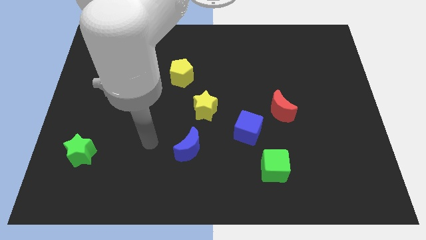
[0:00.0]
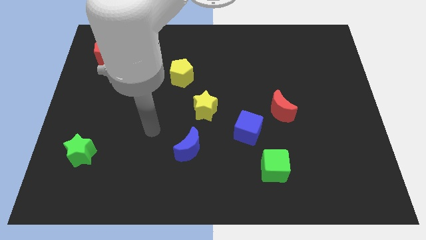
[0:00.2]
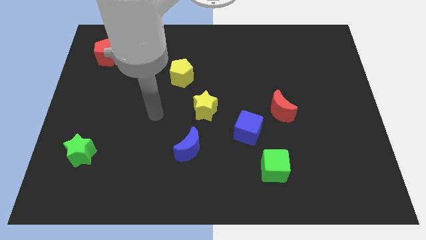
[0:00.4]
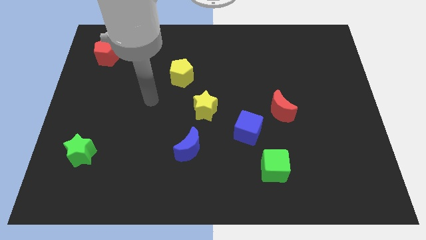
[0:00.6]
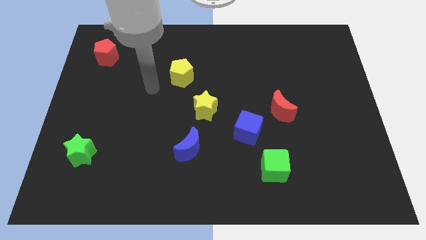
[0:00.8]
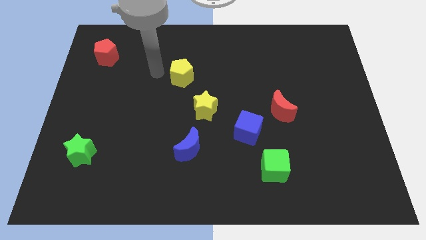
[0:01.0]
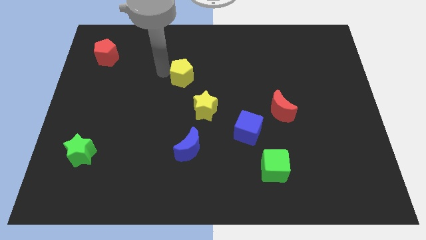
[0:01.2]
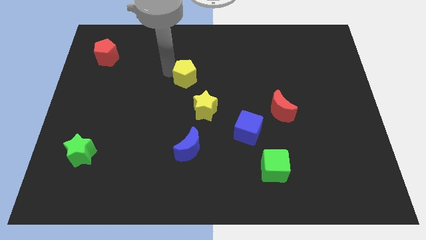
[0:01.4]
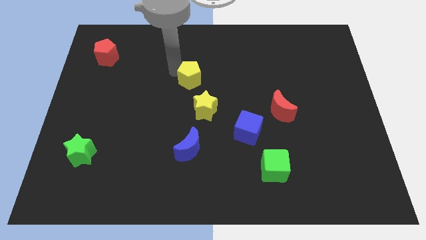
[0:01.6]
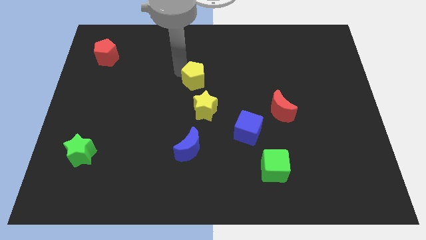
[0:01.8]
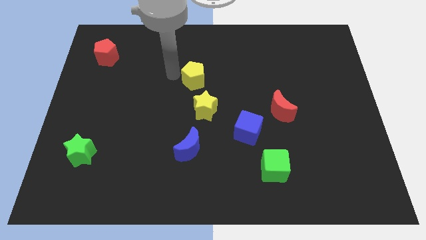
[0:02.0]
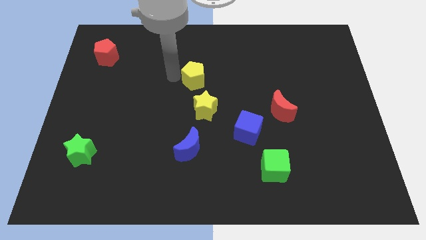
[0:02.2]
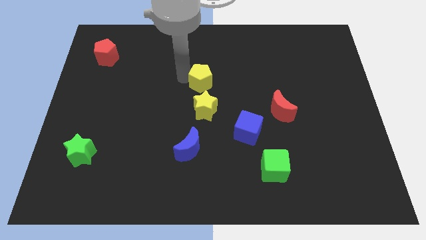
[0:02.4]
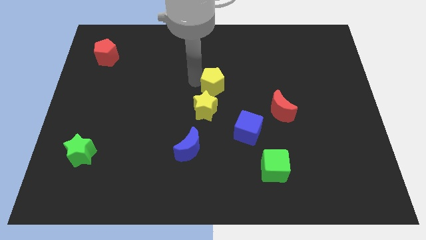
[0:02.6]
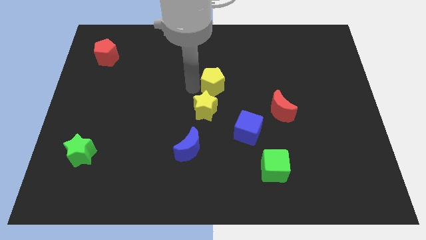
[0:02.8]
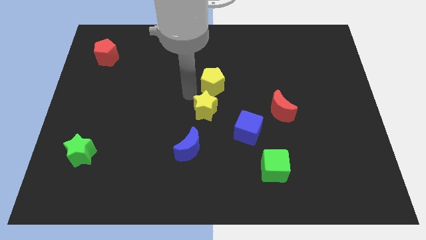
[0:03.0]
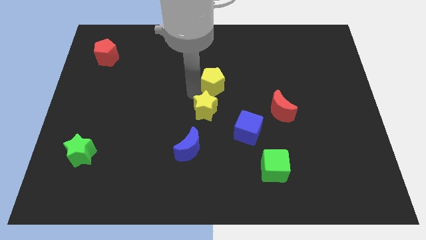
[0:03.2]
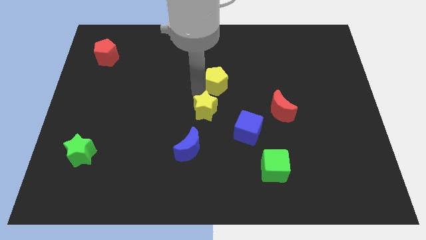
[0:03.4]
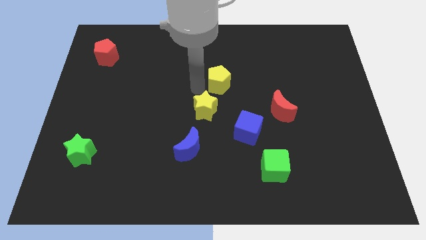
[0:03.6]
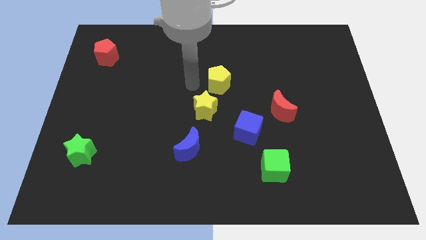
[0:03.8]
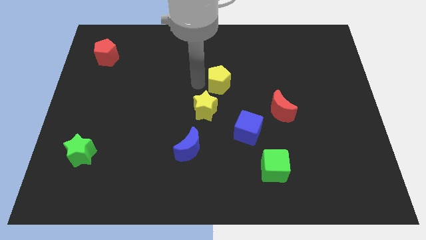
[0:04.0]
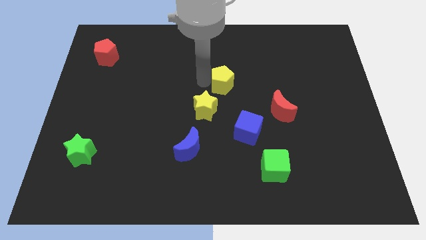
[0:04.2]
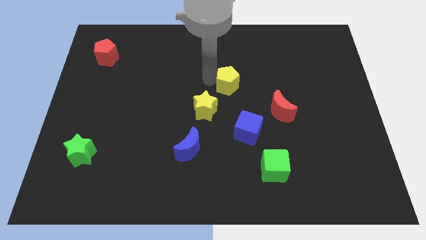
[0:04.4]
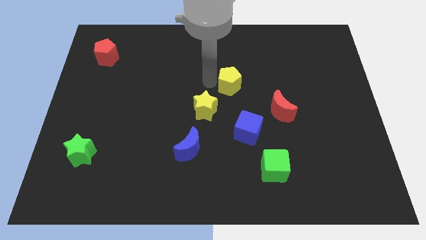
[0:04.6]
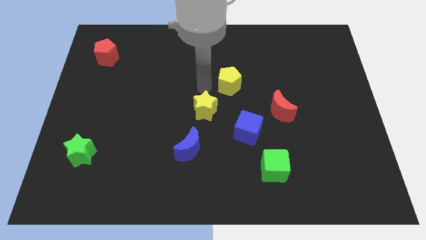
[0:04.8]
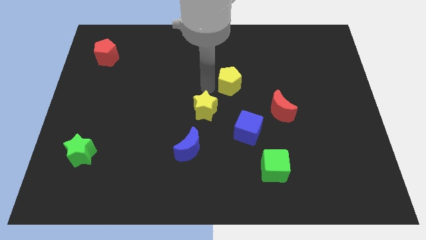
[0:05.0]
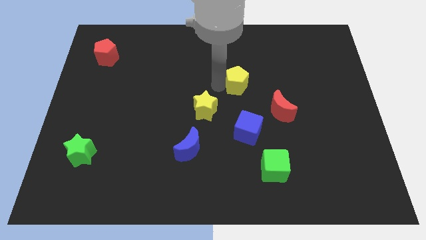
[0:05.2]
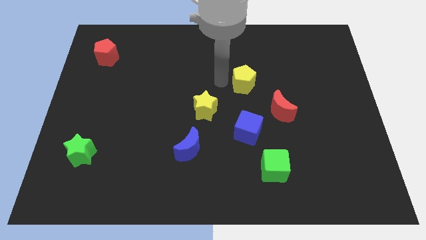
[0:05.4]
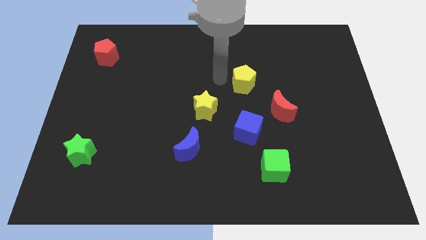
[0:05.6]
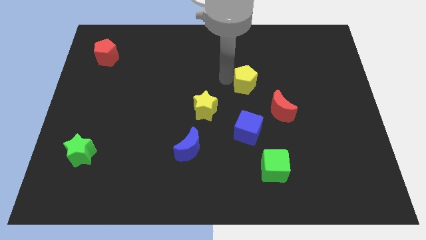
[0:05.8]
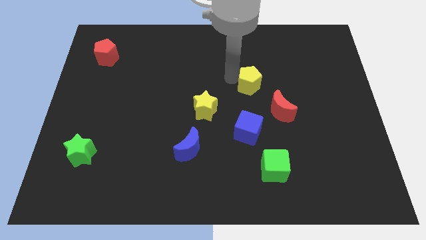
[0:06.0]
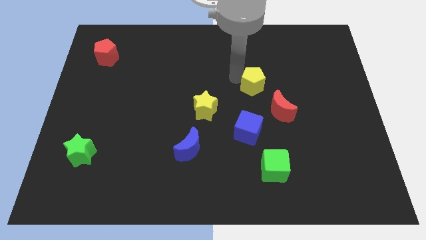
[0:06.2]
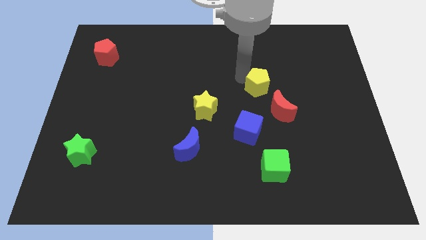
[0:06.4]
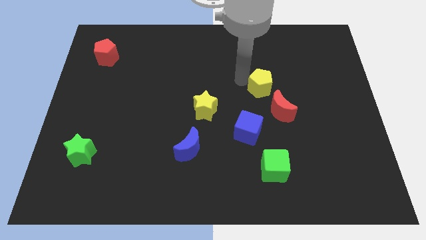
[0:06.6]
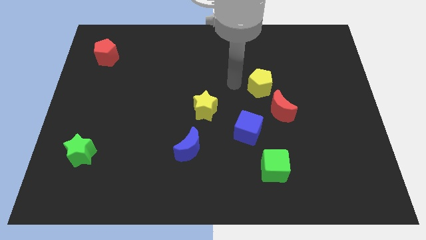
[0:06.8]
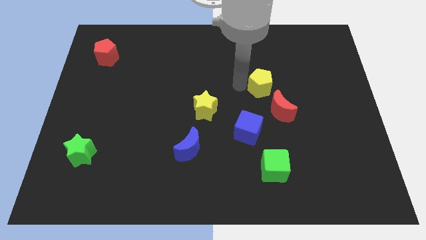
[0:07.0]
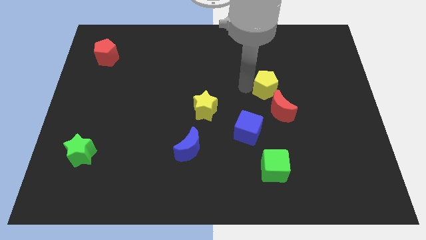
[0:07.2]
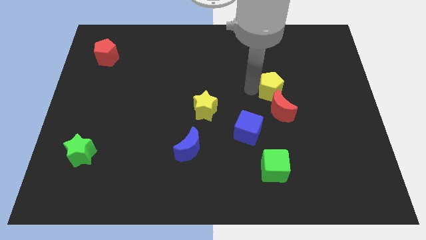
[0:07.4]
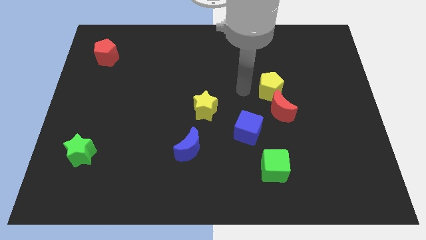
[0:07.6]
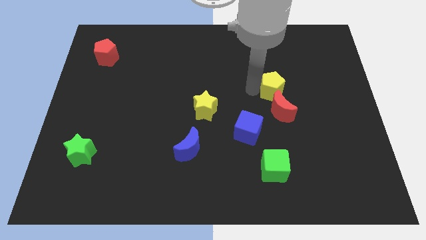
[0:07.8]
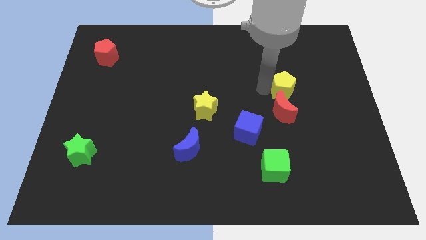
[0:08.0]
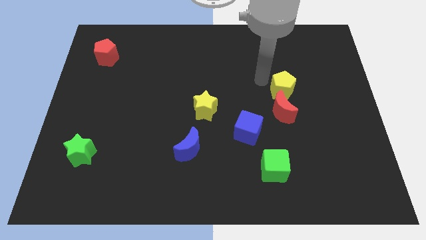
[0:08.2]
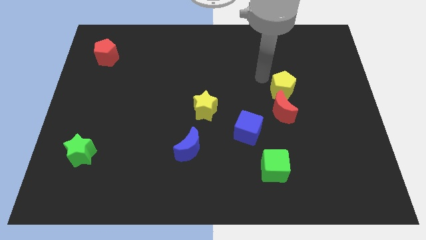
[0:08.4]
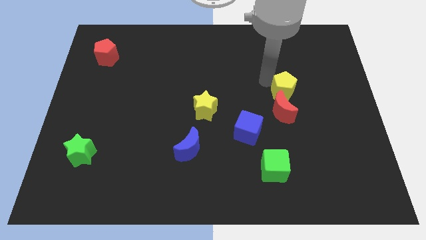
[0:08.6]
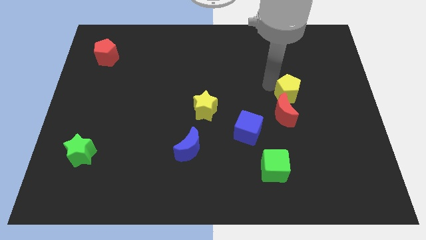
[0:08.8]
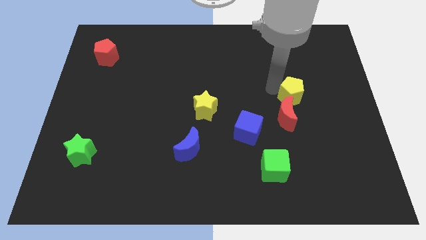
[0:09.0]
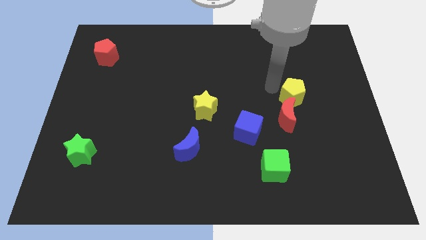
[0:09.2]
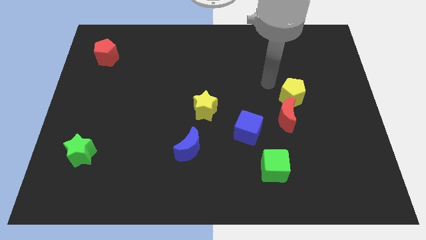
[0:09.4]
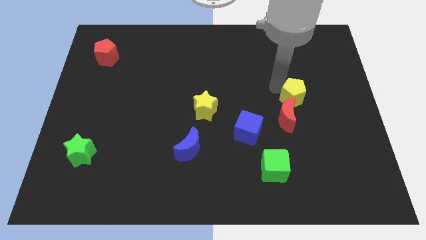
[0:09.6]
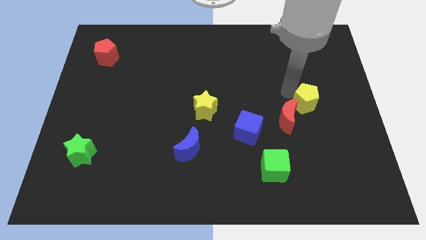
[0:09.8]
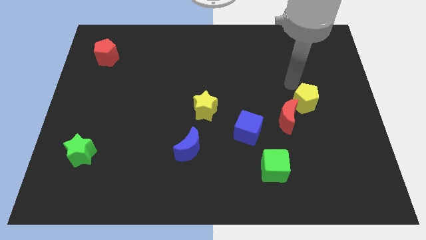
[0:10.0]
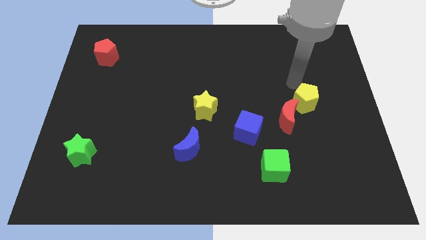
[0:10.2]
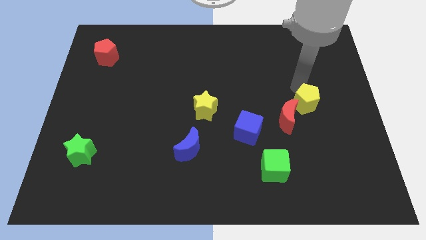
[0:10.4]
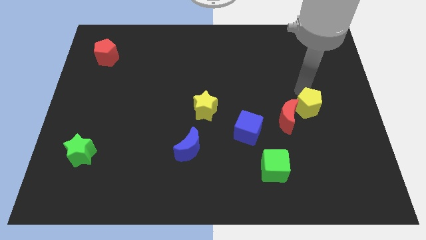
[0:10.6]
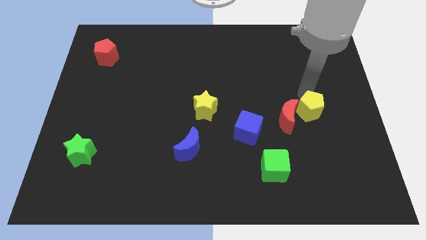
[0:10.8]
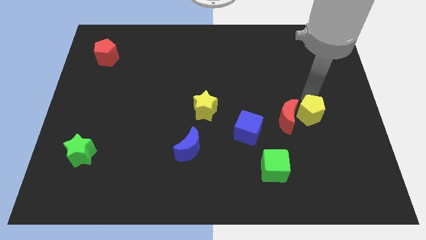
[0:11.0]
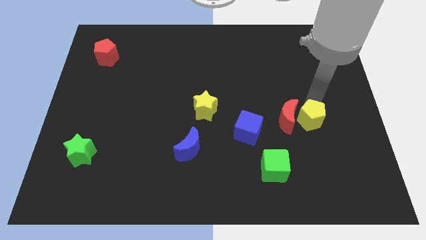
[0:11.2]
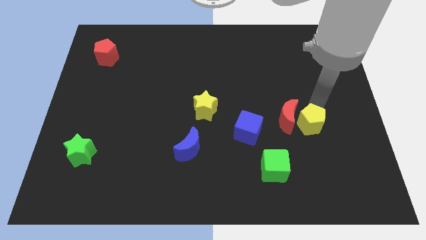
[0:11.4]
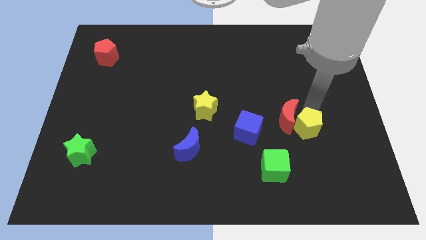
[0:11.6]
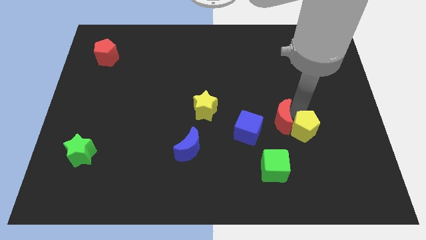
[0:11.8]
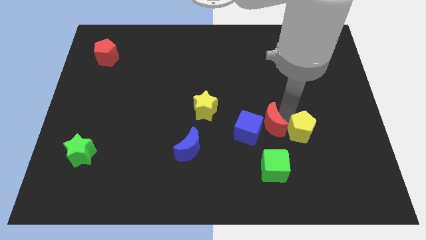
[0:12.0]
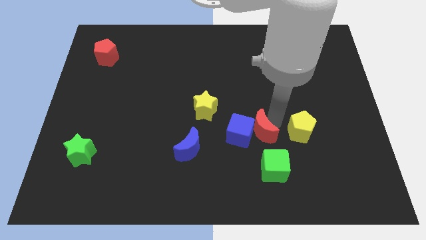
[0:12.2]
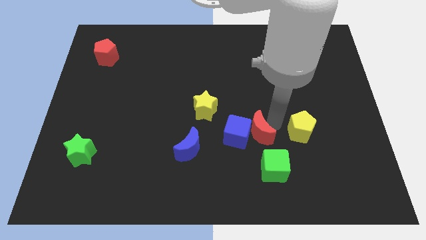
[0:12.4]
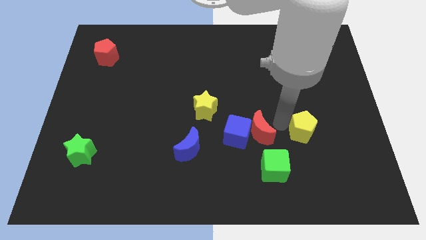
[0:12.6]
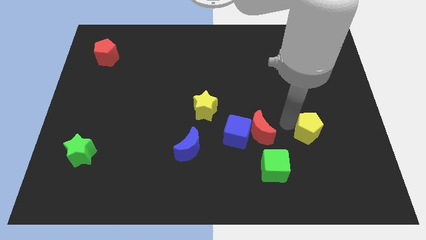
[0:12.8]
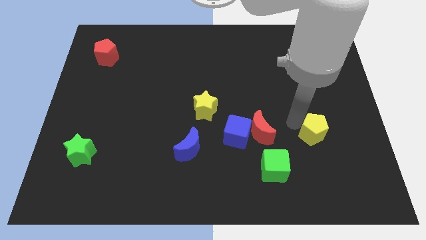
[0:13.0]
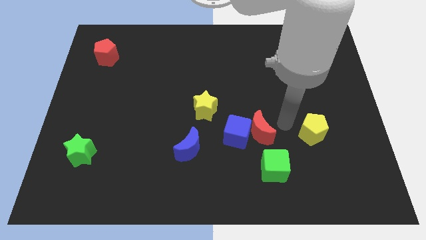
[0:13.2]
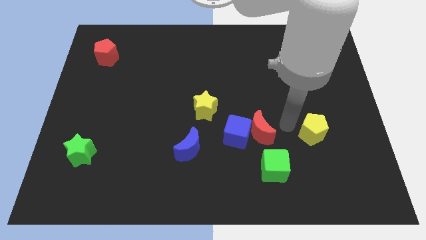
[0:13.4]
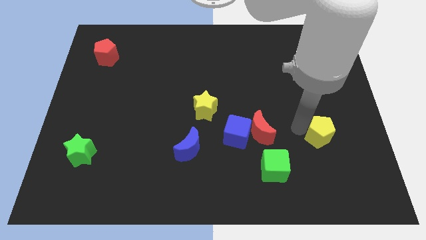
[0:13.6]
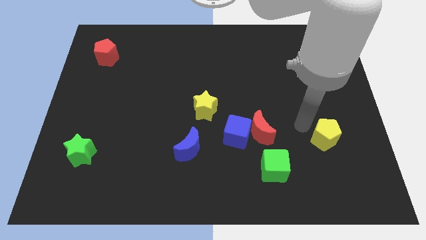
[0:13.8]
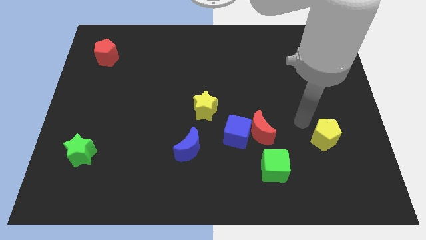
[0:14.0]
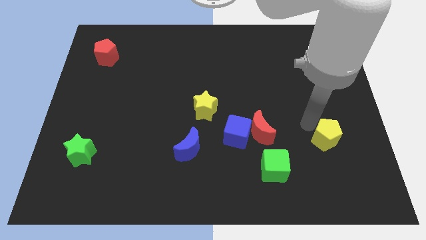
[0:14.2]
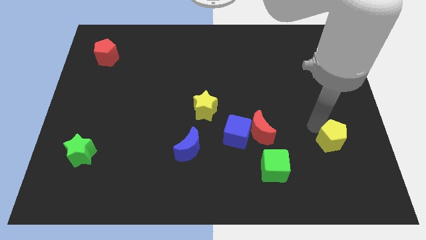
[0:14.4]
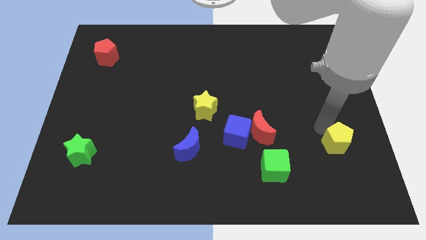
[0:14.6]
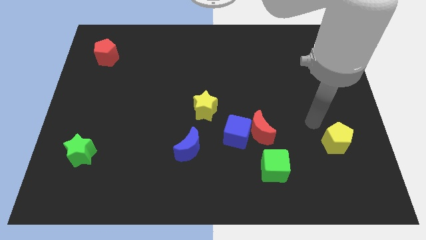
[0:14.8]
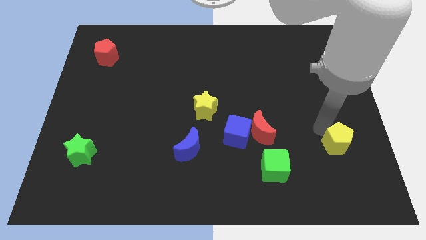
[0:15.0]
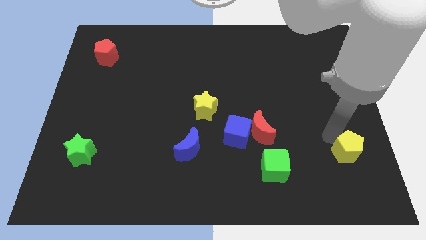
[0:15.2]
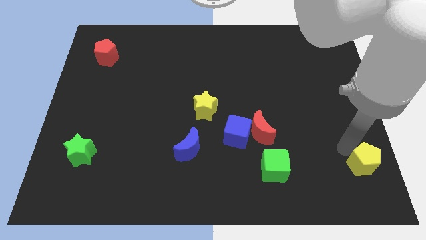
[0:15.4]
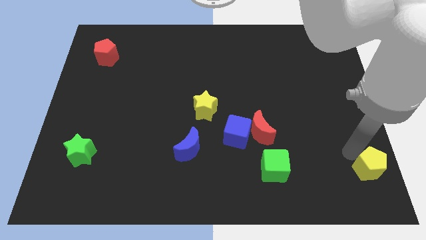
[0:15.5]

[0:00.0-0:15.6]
slide the yellow pentagon to the bottom right corner
